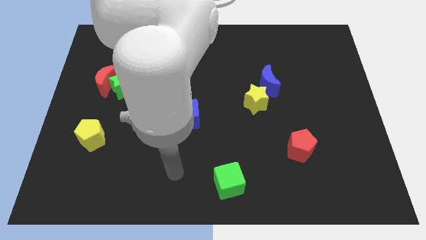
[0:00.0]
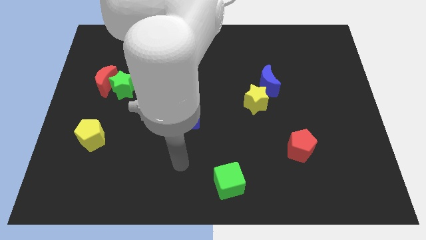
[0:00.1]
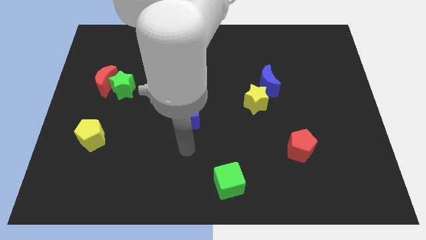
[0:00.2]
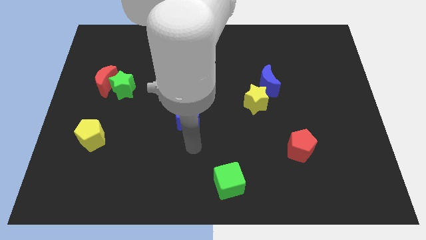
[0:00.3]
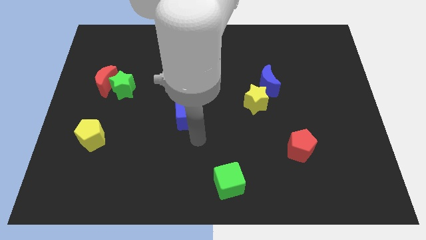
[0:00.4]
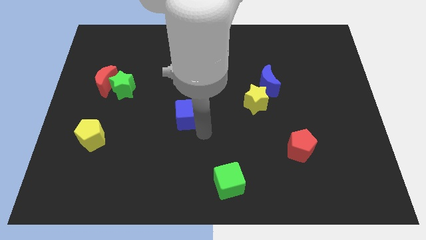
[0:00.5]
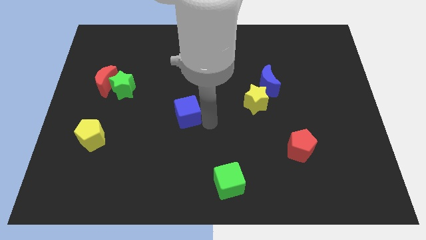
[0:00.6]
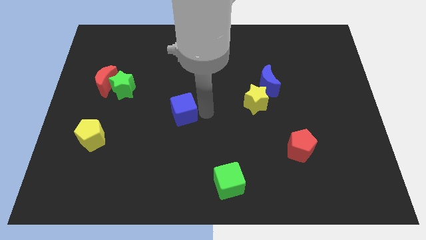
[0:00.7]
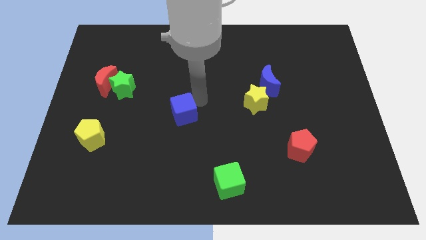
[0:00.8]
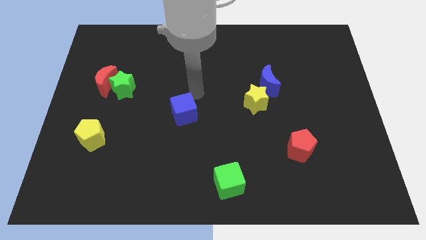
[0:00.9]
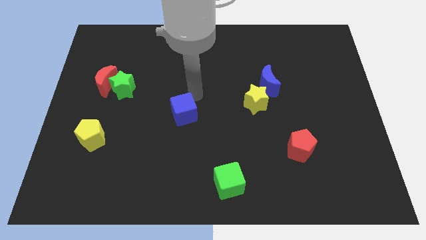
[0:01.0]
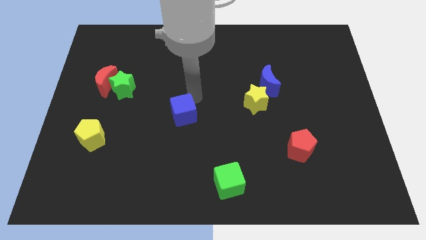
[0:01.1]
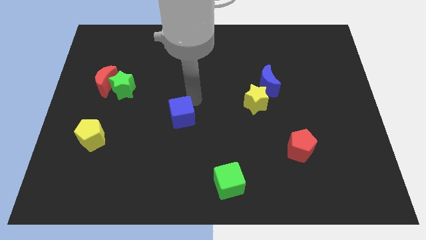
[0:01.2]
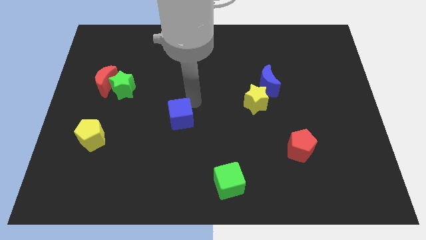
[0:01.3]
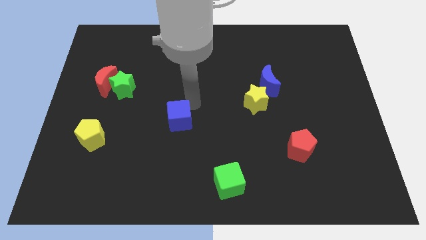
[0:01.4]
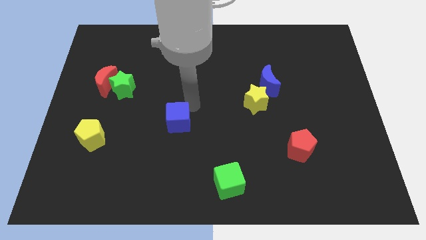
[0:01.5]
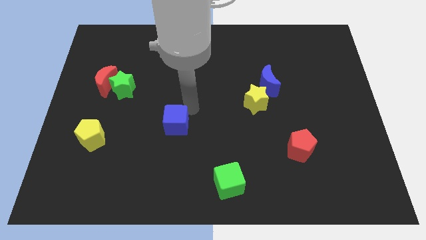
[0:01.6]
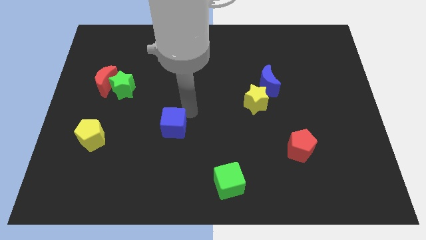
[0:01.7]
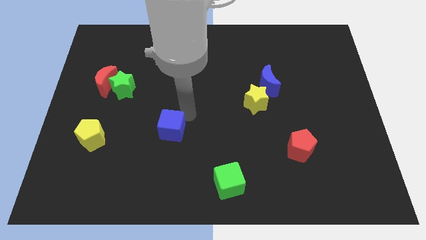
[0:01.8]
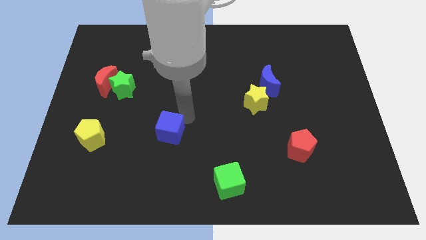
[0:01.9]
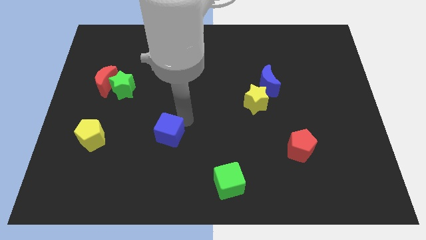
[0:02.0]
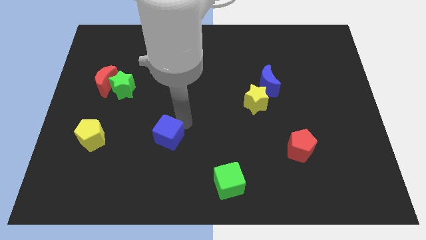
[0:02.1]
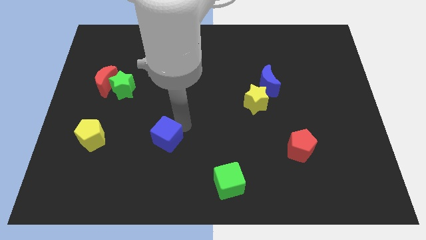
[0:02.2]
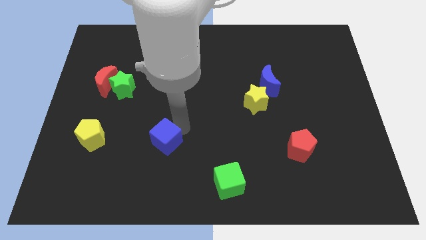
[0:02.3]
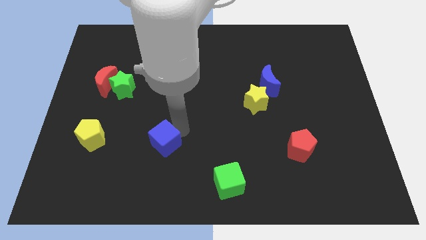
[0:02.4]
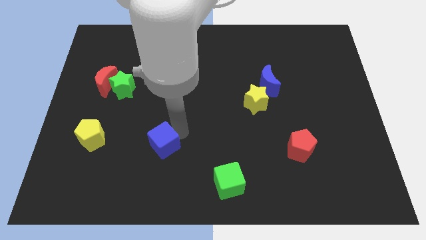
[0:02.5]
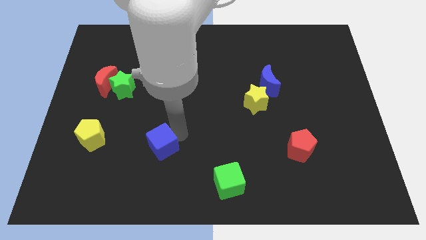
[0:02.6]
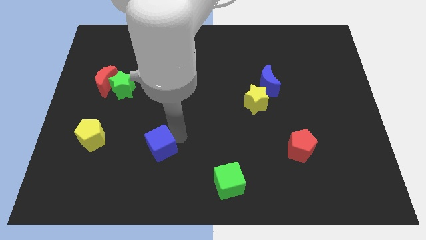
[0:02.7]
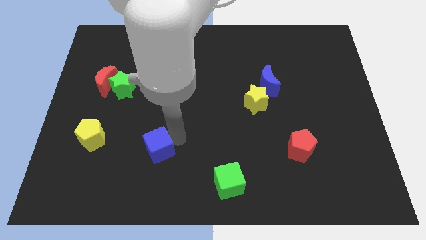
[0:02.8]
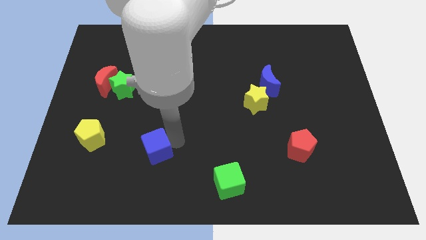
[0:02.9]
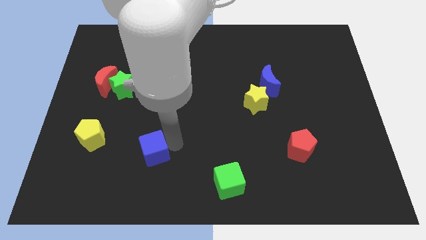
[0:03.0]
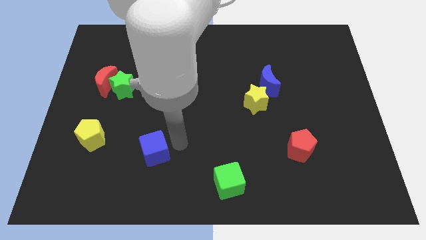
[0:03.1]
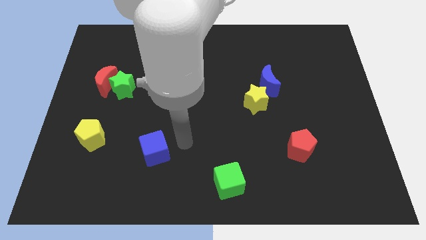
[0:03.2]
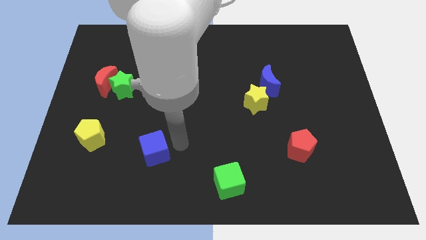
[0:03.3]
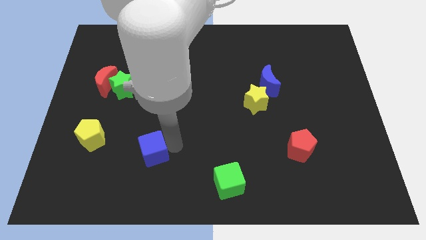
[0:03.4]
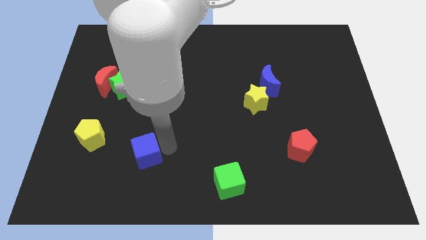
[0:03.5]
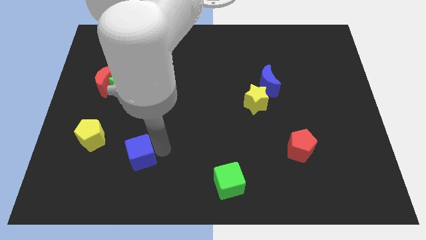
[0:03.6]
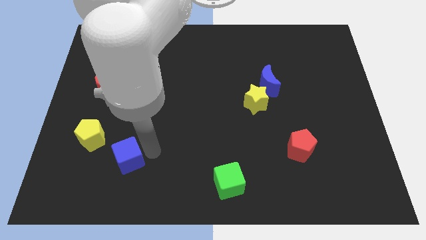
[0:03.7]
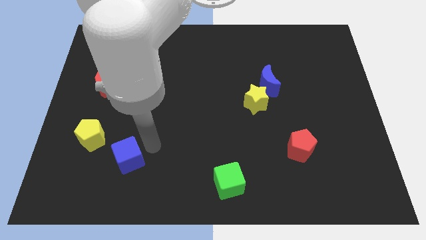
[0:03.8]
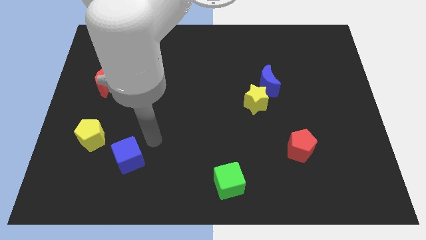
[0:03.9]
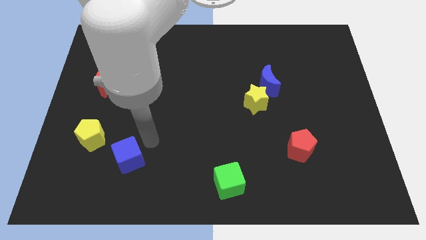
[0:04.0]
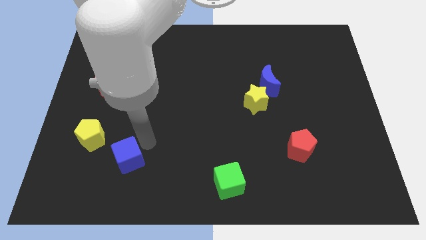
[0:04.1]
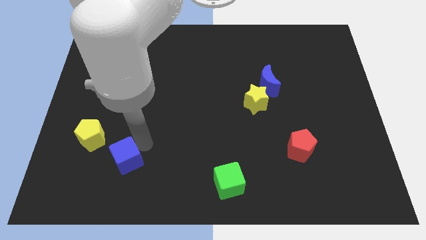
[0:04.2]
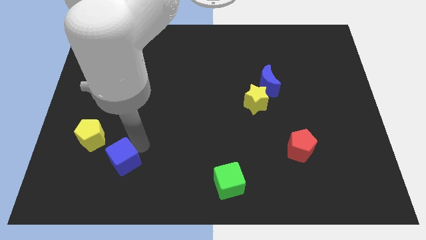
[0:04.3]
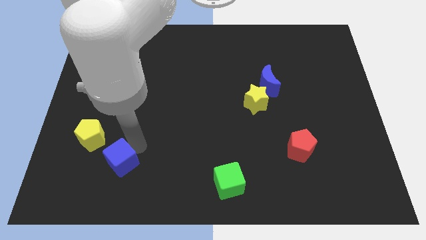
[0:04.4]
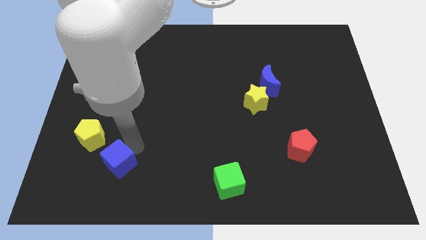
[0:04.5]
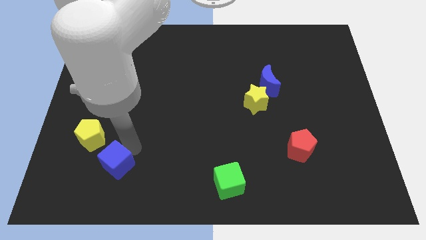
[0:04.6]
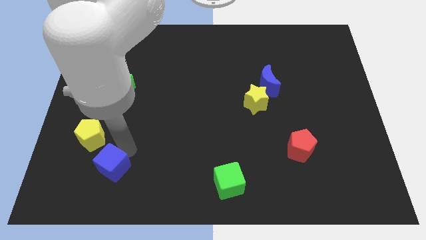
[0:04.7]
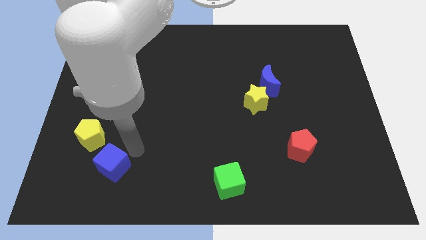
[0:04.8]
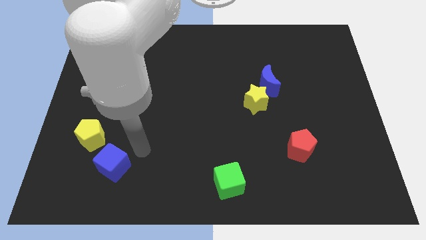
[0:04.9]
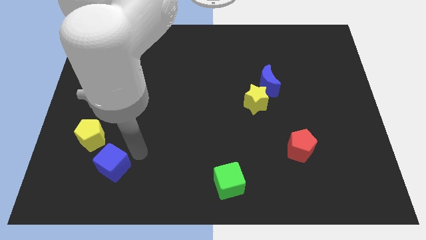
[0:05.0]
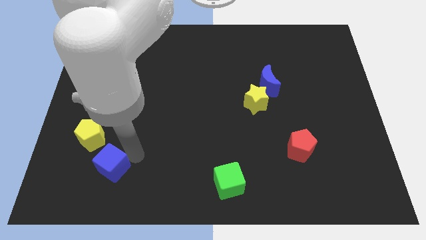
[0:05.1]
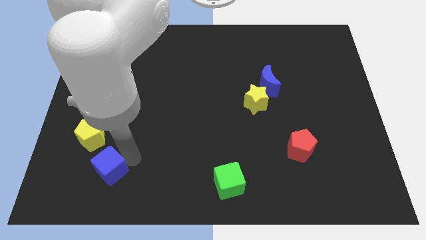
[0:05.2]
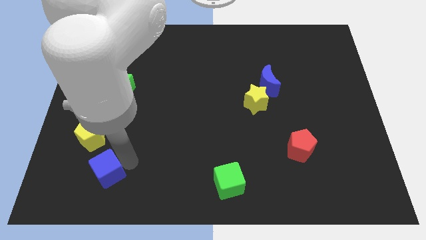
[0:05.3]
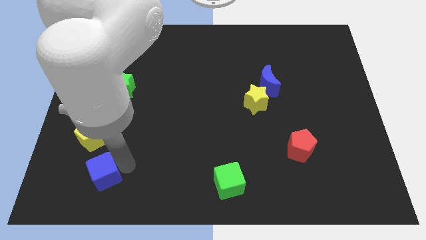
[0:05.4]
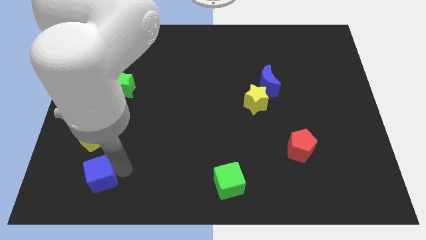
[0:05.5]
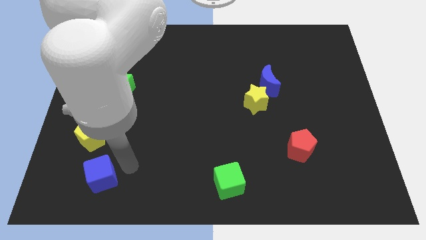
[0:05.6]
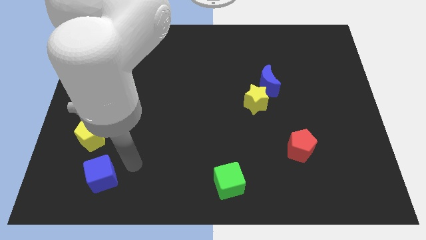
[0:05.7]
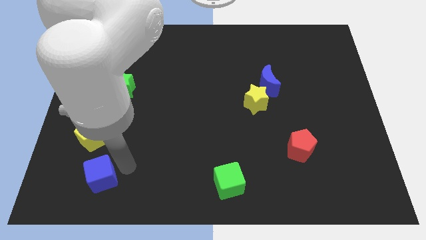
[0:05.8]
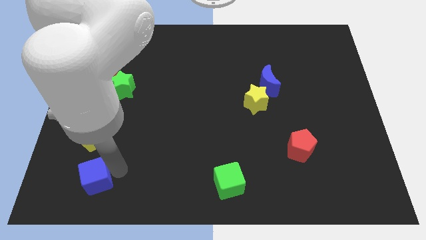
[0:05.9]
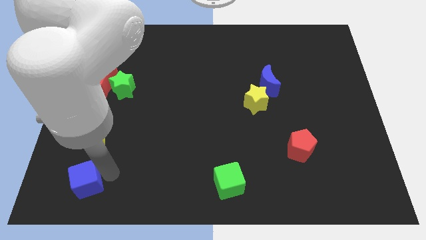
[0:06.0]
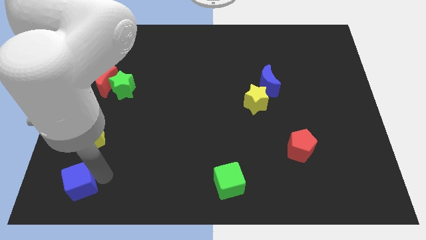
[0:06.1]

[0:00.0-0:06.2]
slide the blue cube to the bottom left corner

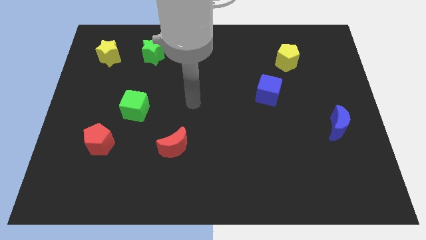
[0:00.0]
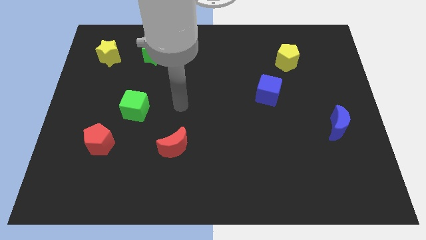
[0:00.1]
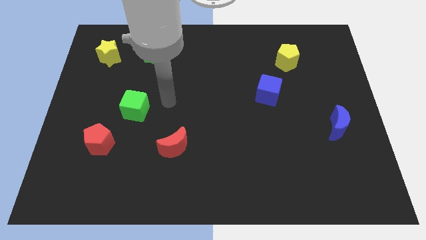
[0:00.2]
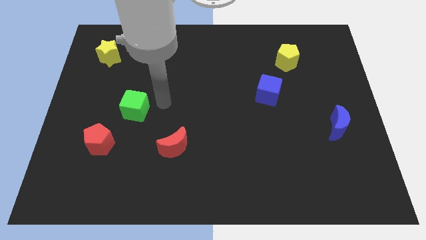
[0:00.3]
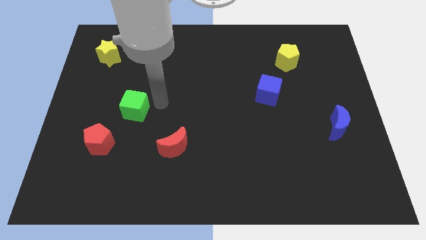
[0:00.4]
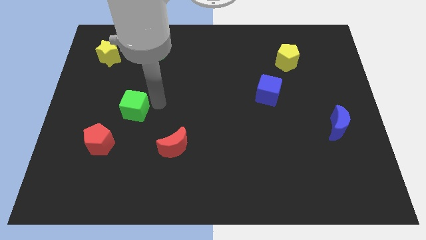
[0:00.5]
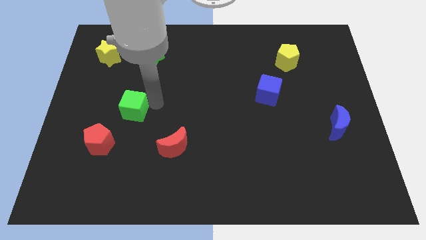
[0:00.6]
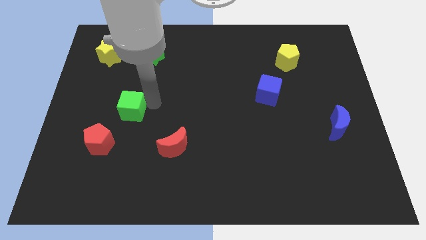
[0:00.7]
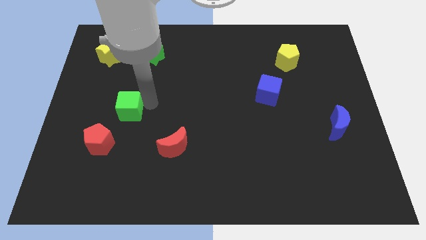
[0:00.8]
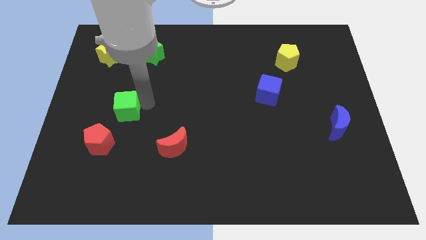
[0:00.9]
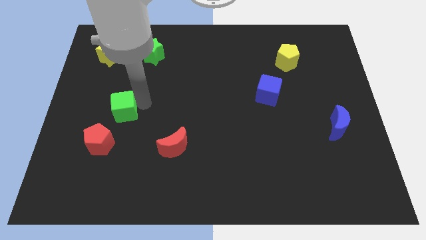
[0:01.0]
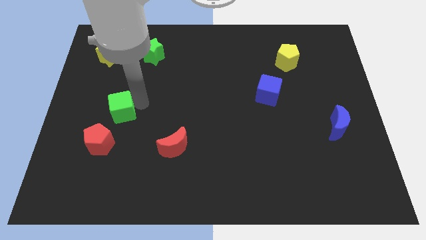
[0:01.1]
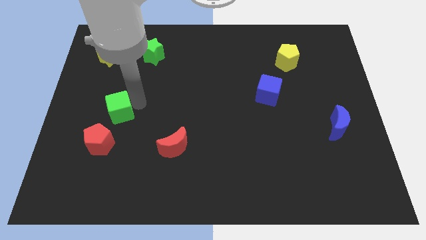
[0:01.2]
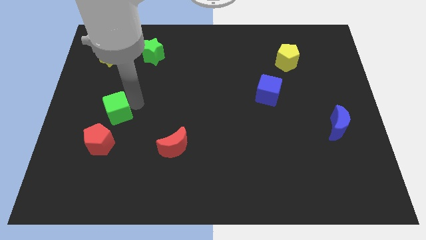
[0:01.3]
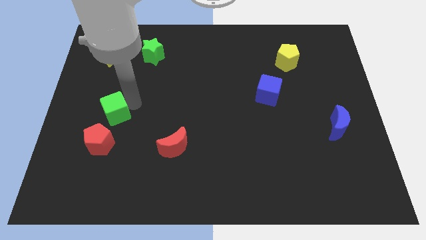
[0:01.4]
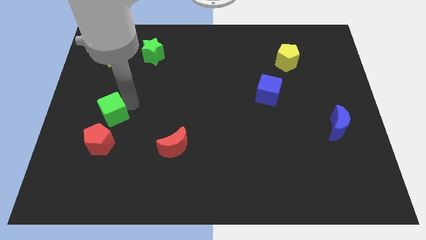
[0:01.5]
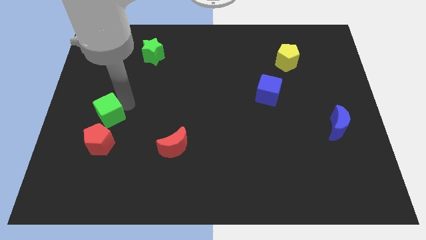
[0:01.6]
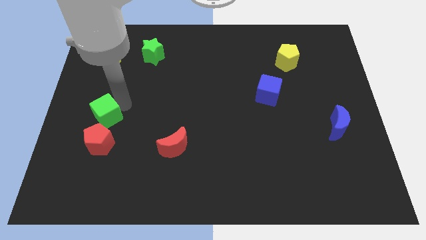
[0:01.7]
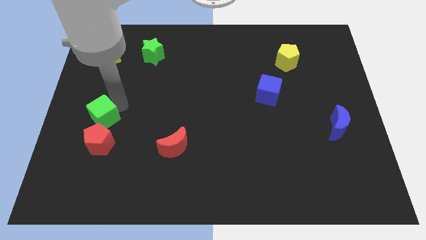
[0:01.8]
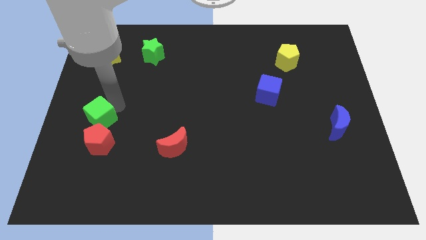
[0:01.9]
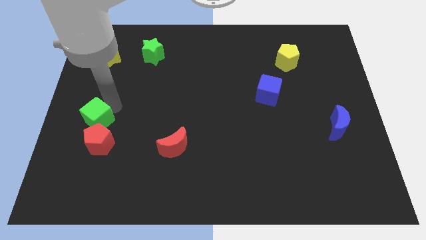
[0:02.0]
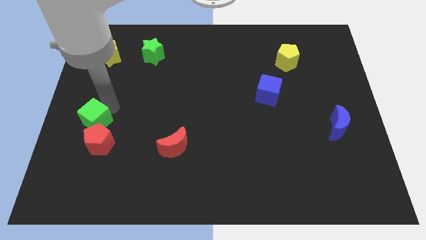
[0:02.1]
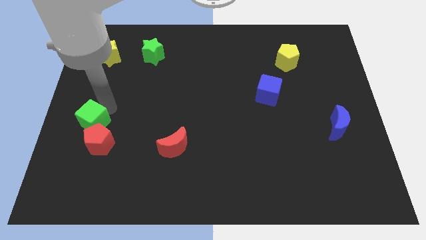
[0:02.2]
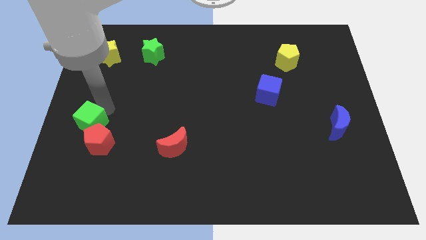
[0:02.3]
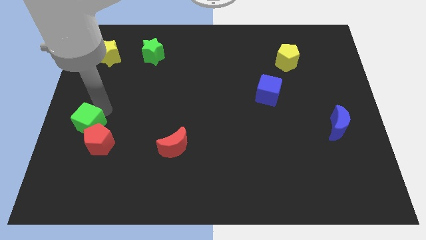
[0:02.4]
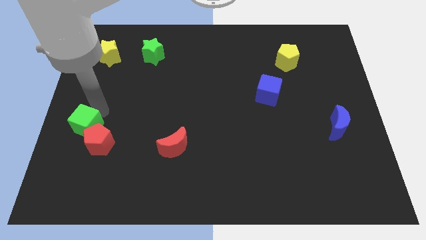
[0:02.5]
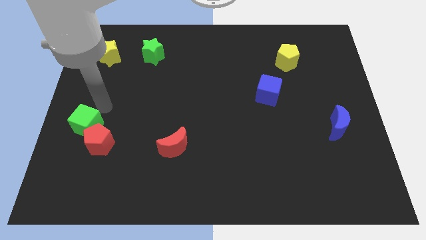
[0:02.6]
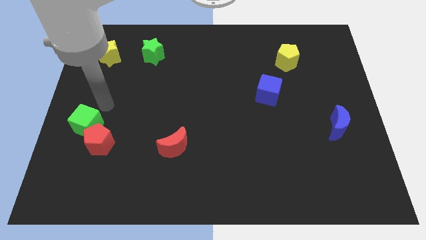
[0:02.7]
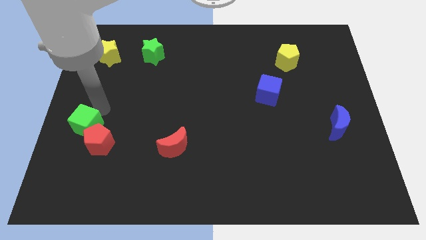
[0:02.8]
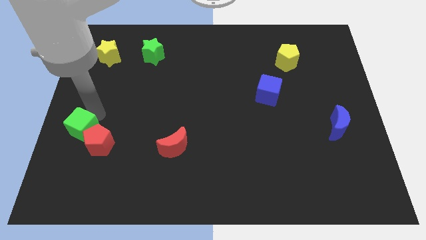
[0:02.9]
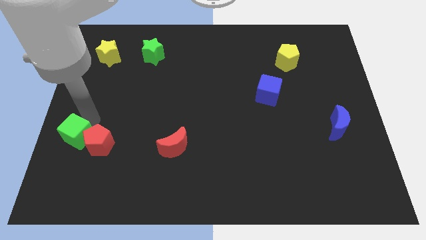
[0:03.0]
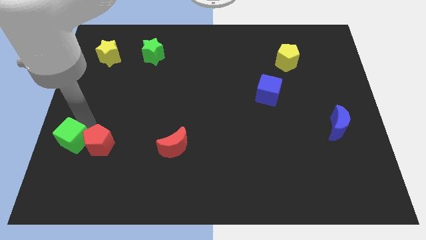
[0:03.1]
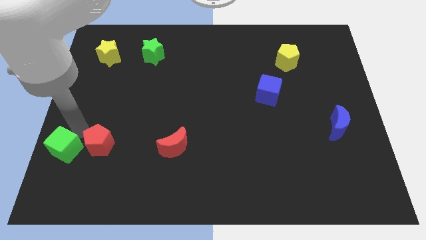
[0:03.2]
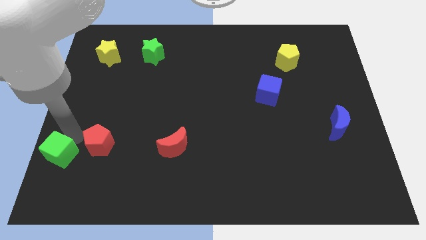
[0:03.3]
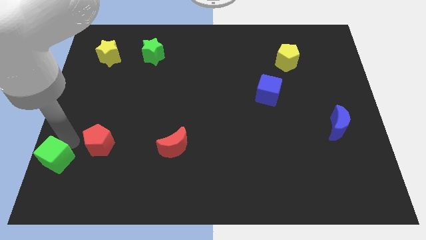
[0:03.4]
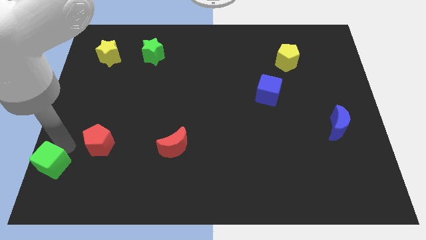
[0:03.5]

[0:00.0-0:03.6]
slide the green cube to the bottom left of the board
